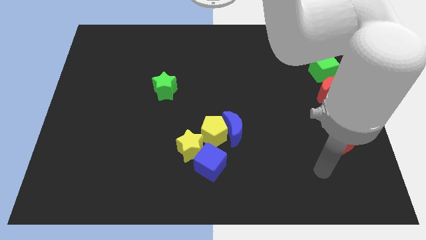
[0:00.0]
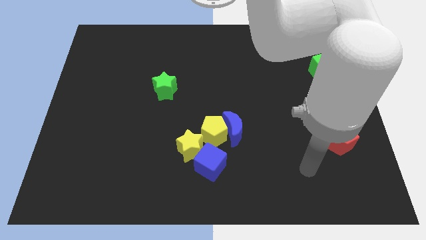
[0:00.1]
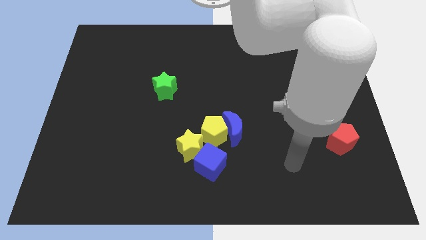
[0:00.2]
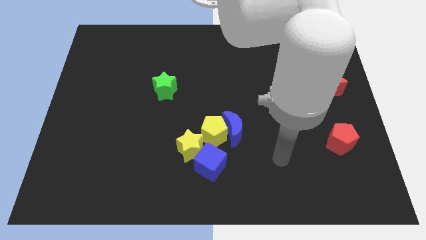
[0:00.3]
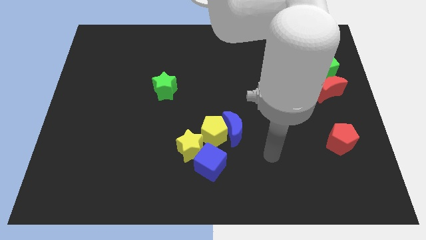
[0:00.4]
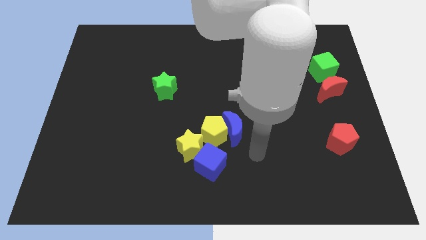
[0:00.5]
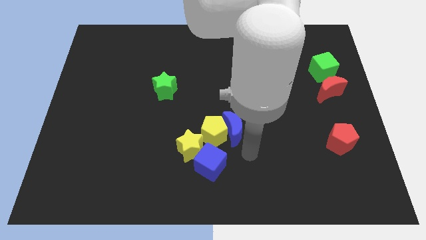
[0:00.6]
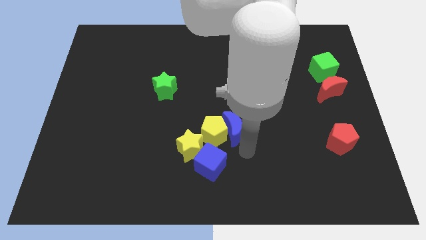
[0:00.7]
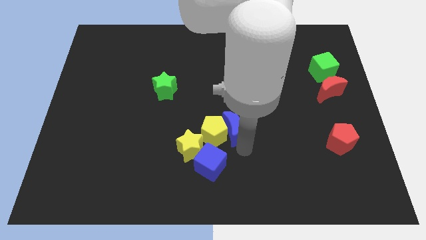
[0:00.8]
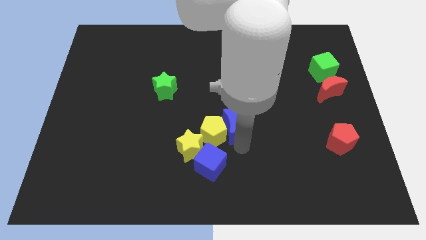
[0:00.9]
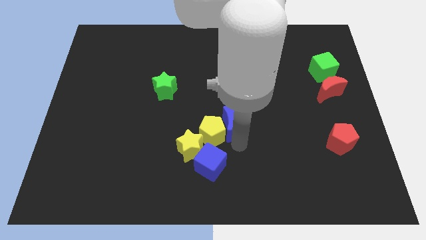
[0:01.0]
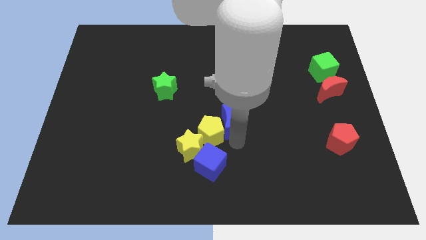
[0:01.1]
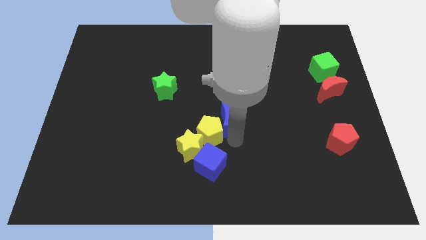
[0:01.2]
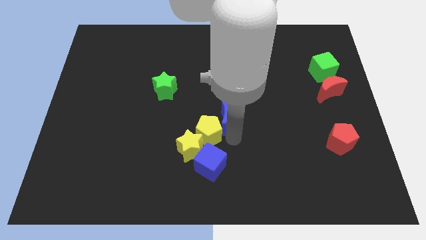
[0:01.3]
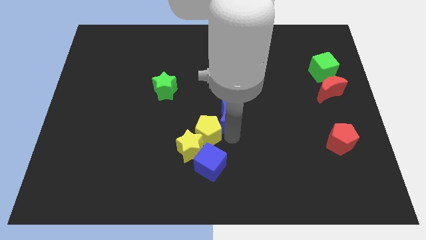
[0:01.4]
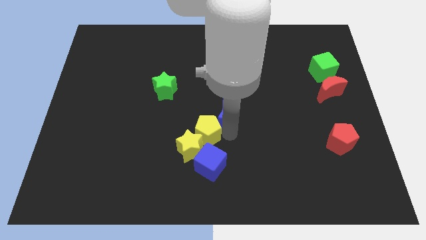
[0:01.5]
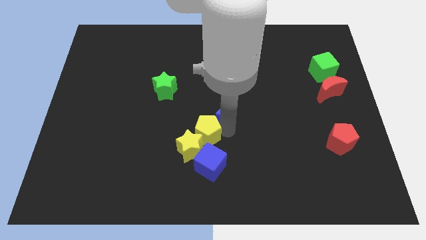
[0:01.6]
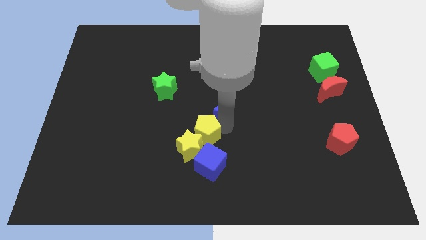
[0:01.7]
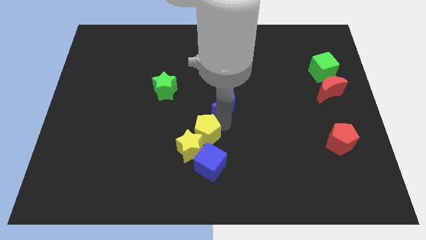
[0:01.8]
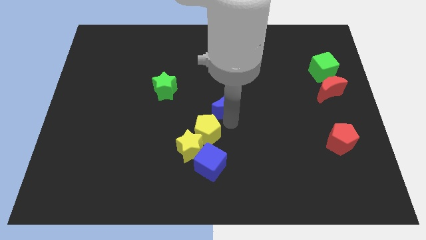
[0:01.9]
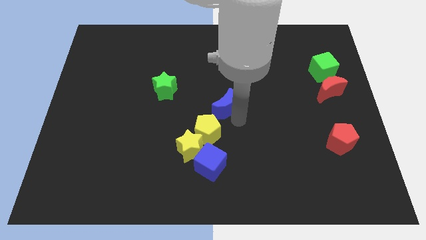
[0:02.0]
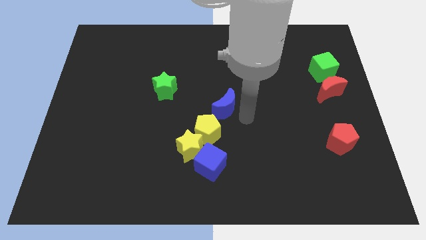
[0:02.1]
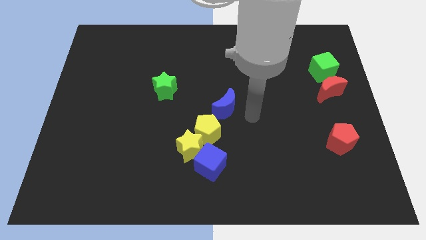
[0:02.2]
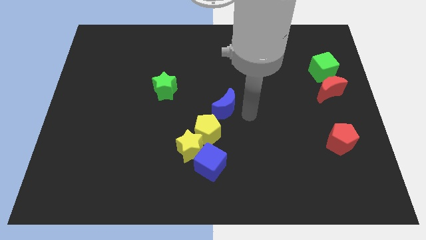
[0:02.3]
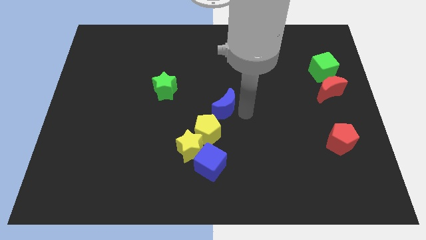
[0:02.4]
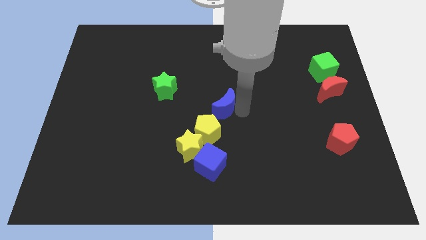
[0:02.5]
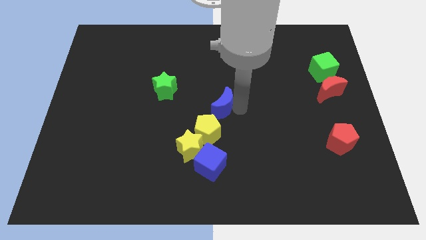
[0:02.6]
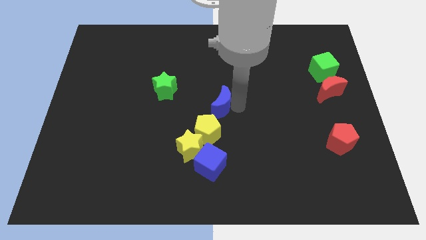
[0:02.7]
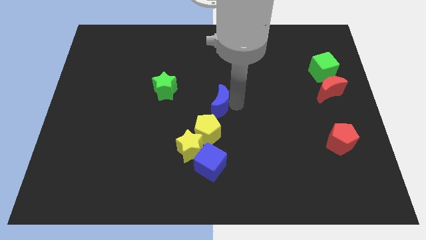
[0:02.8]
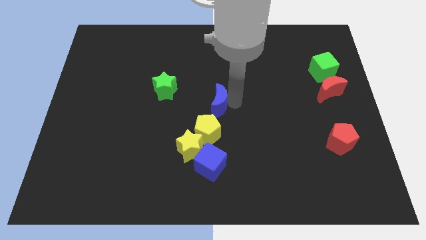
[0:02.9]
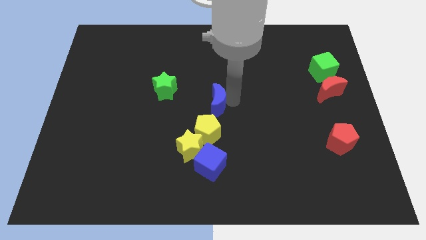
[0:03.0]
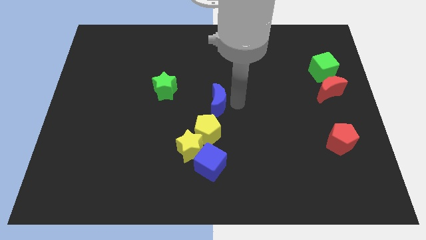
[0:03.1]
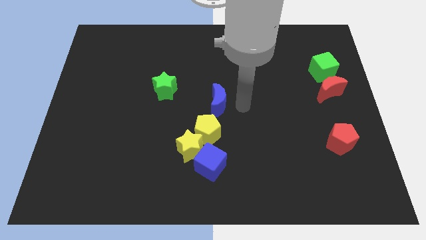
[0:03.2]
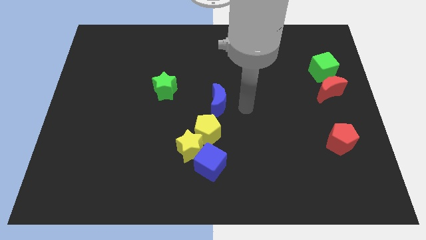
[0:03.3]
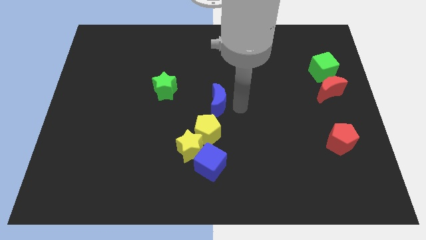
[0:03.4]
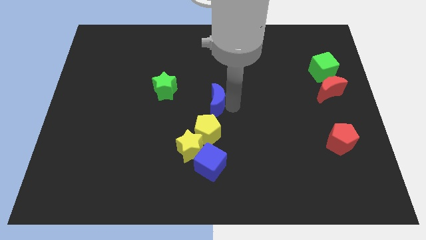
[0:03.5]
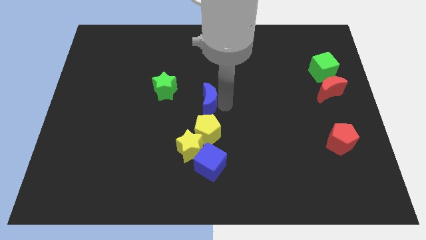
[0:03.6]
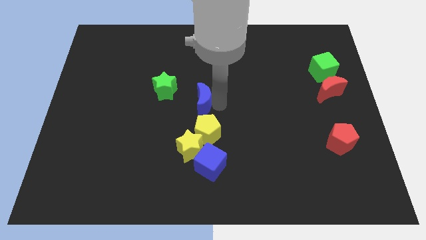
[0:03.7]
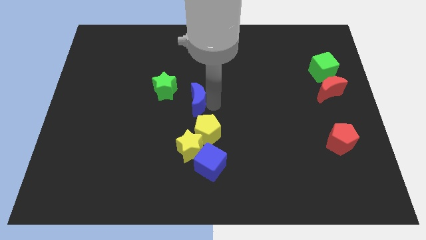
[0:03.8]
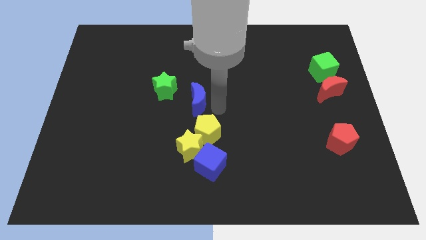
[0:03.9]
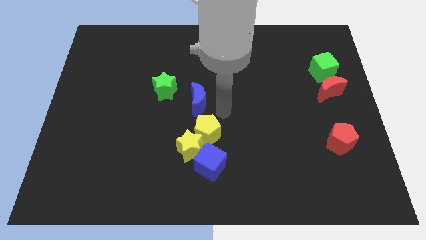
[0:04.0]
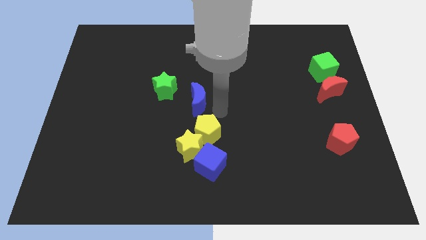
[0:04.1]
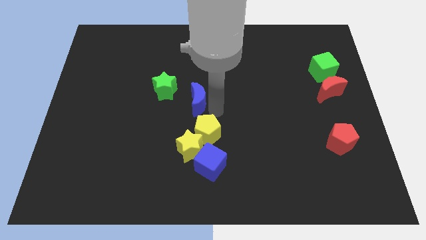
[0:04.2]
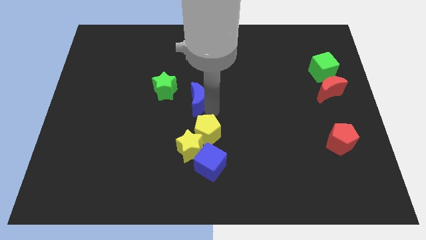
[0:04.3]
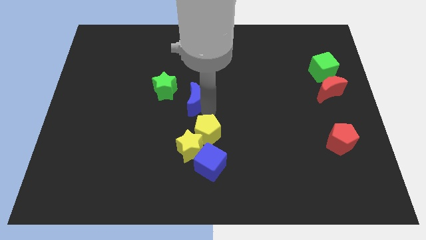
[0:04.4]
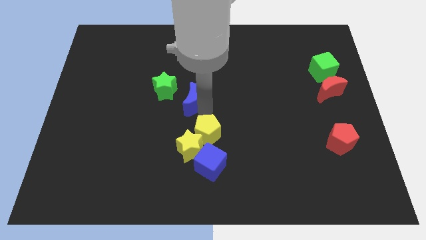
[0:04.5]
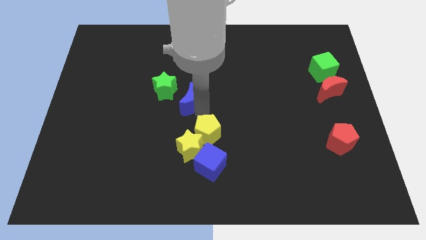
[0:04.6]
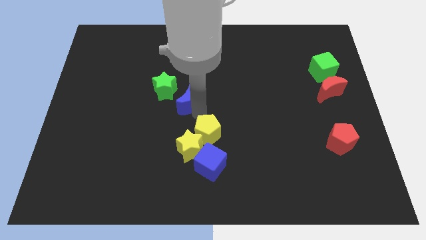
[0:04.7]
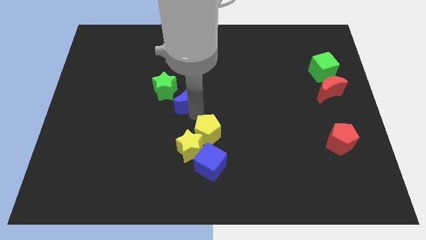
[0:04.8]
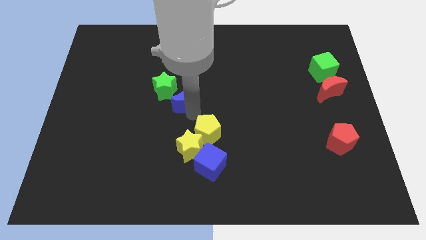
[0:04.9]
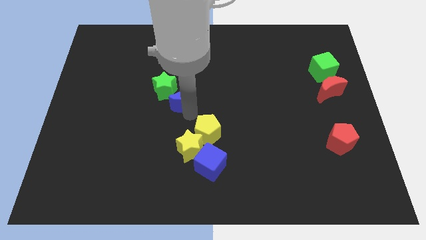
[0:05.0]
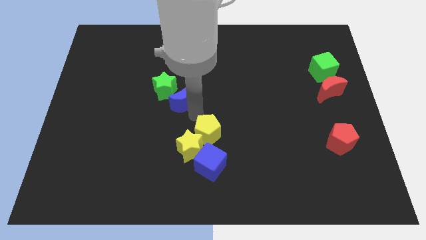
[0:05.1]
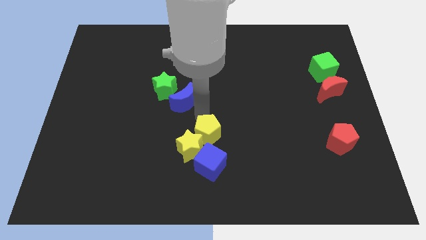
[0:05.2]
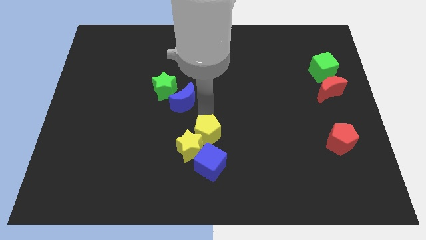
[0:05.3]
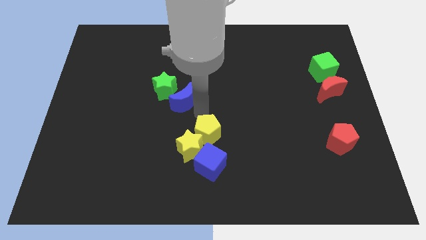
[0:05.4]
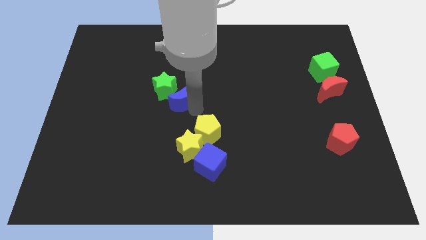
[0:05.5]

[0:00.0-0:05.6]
slide the blue moon close to the green star
